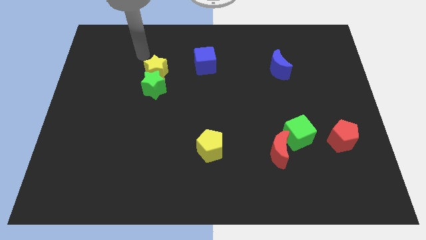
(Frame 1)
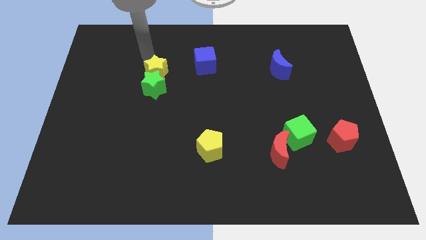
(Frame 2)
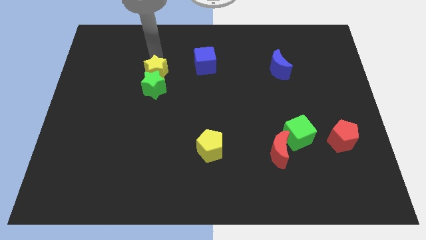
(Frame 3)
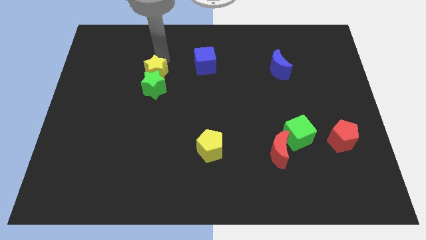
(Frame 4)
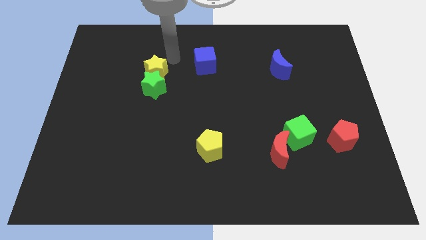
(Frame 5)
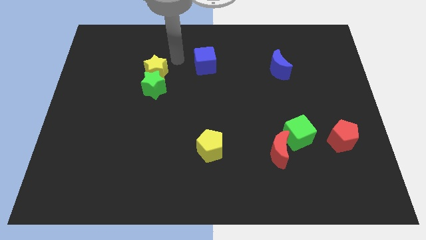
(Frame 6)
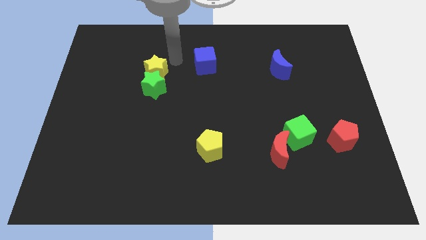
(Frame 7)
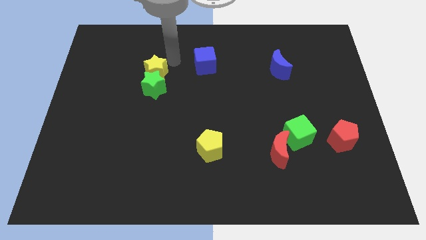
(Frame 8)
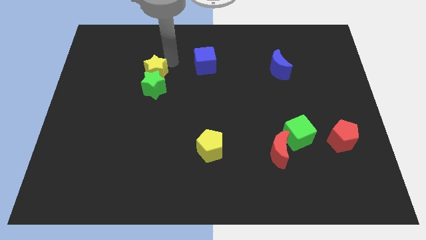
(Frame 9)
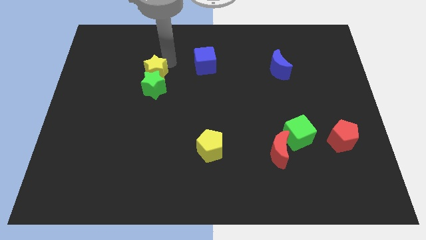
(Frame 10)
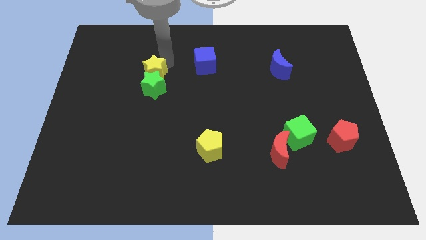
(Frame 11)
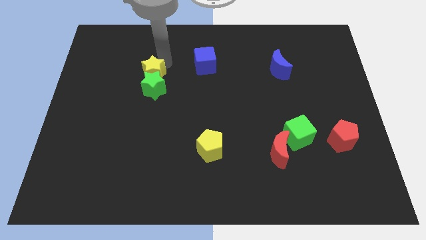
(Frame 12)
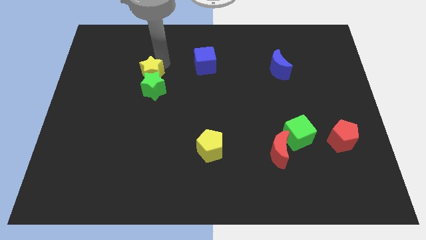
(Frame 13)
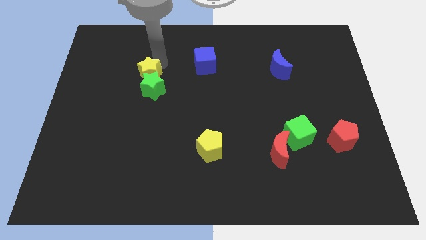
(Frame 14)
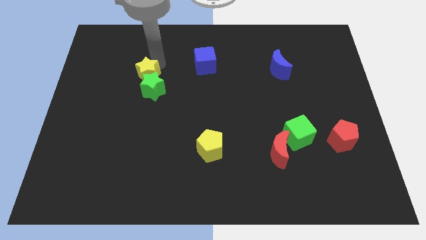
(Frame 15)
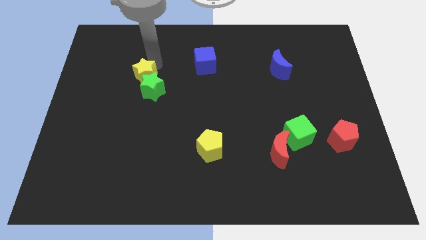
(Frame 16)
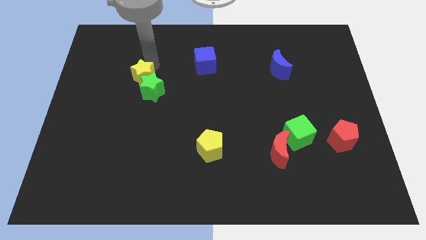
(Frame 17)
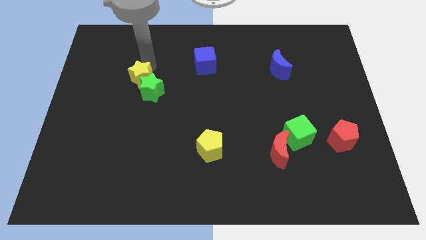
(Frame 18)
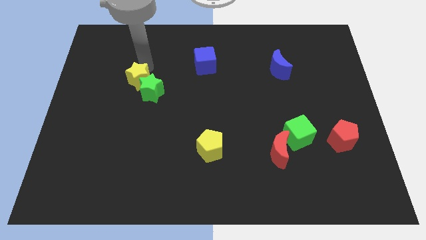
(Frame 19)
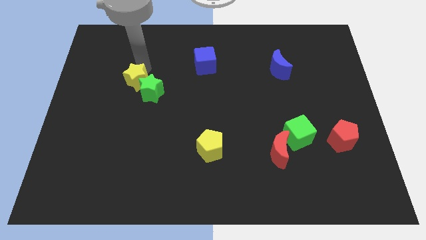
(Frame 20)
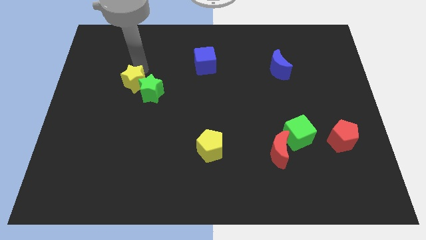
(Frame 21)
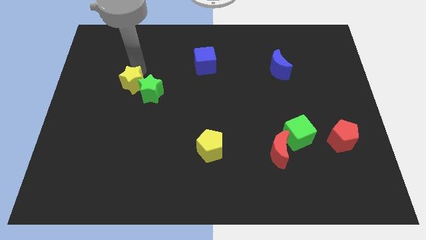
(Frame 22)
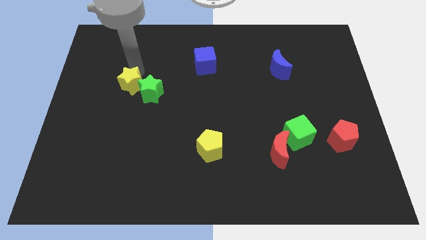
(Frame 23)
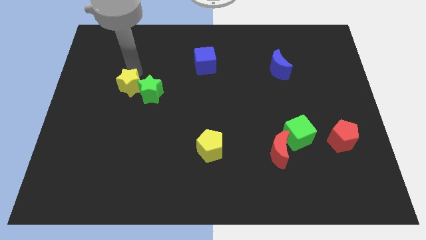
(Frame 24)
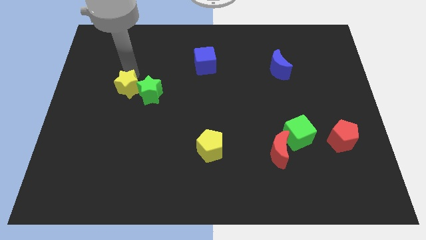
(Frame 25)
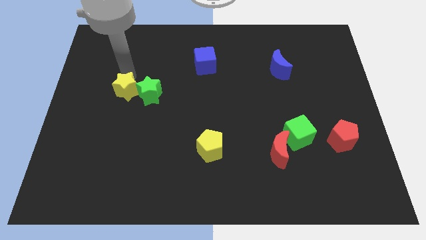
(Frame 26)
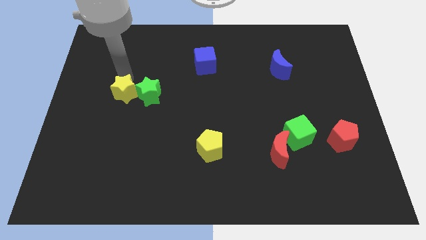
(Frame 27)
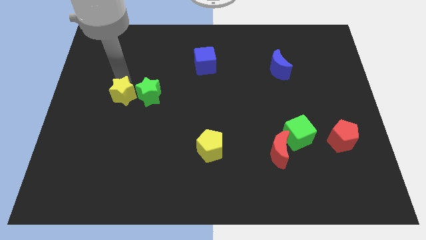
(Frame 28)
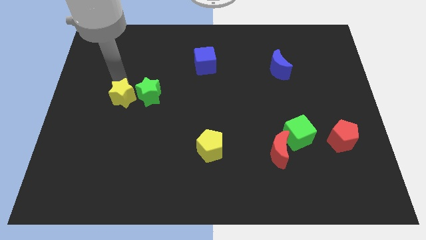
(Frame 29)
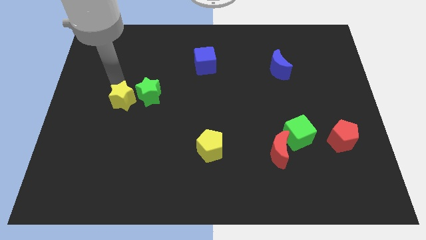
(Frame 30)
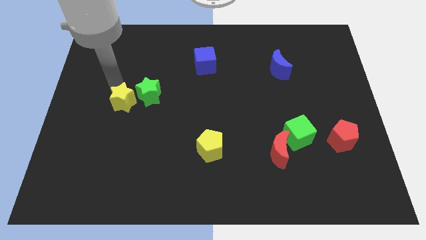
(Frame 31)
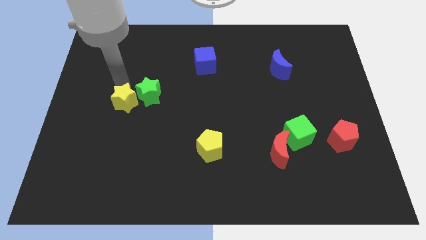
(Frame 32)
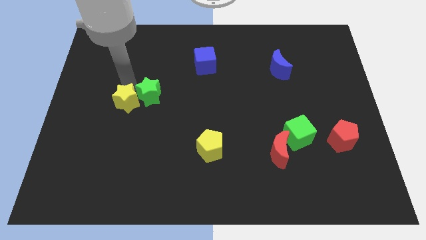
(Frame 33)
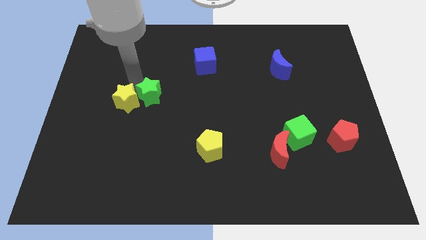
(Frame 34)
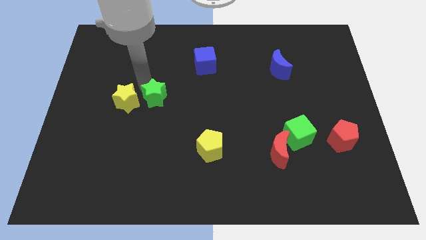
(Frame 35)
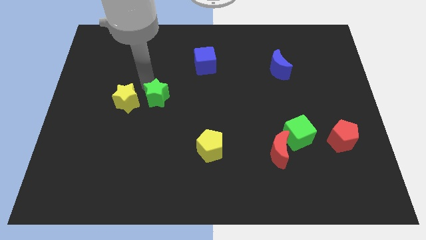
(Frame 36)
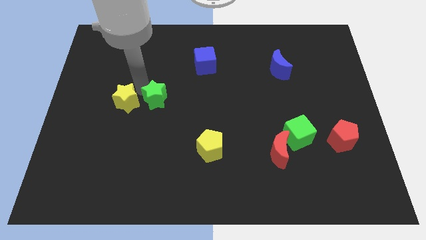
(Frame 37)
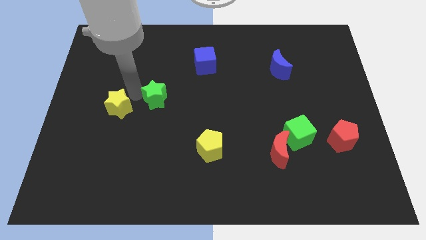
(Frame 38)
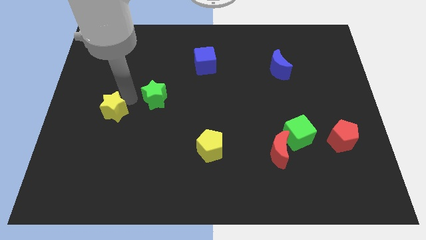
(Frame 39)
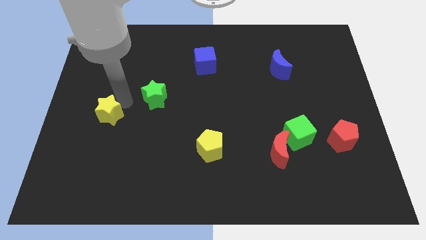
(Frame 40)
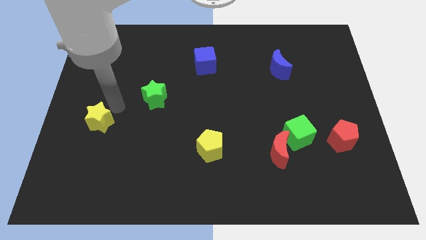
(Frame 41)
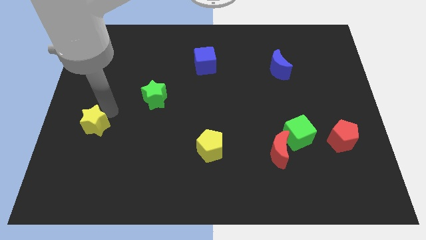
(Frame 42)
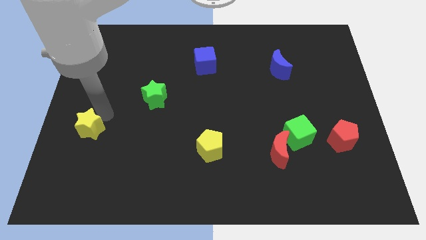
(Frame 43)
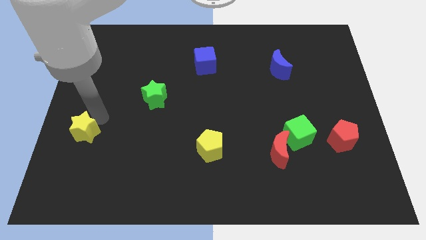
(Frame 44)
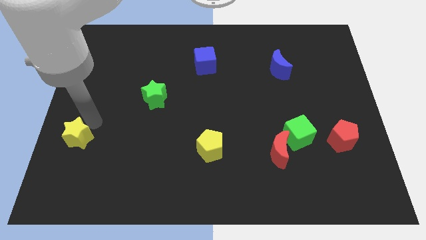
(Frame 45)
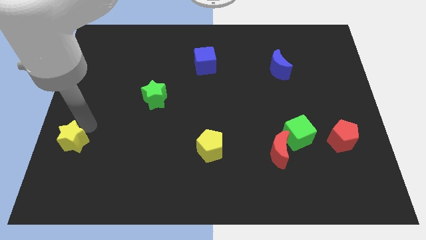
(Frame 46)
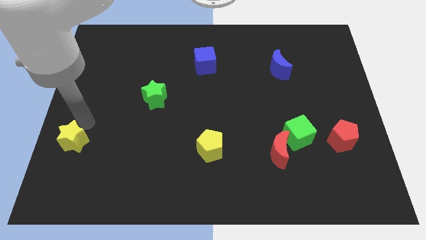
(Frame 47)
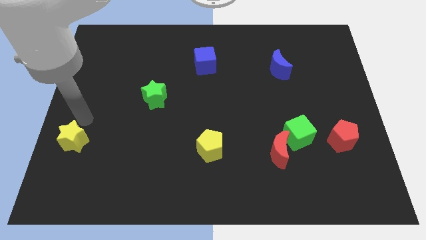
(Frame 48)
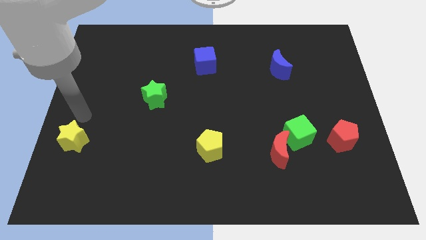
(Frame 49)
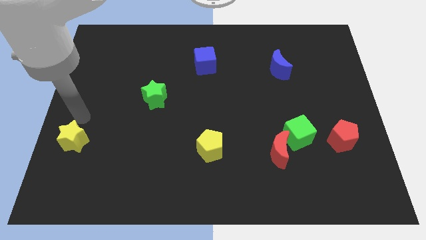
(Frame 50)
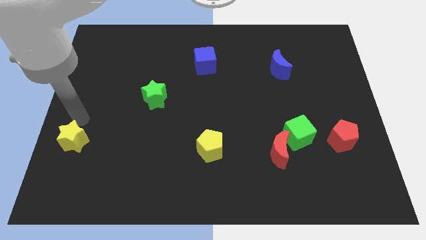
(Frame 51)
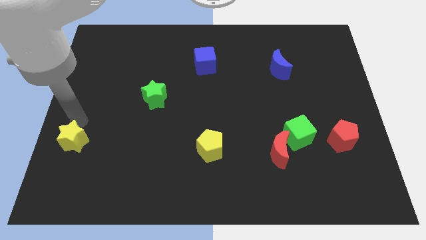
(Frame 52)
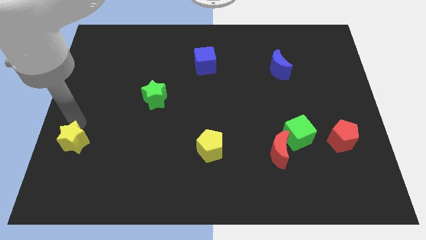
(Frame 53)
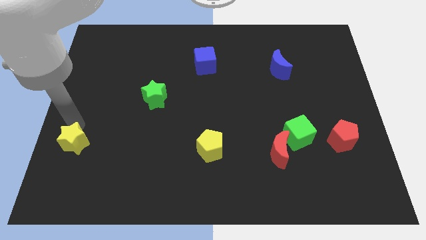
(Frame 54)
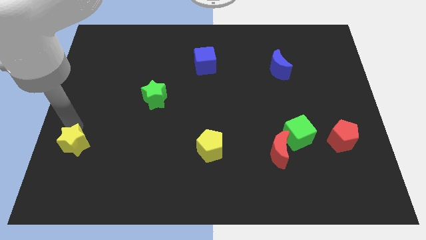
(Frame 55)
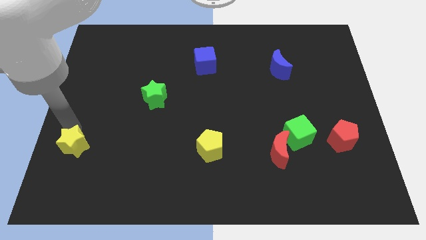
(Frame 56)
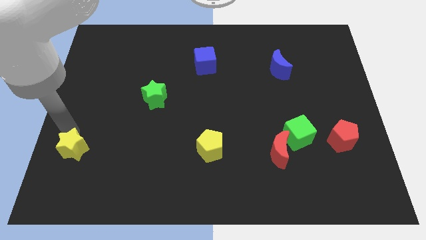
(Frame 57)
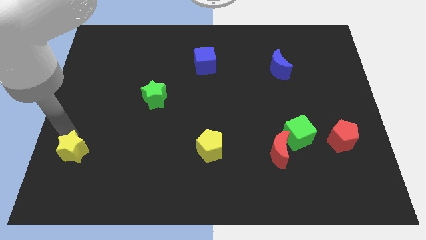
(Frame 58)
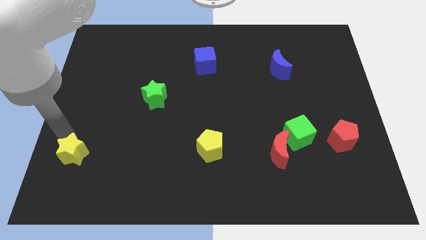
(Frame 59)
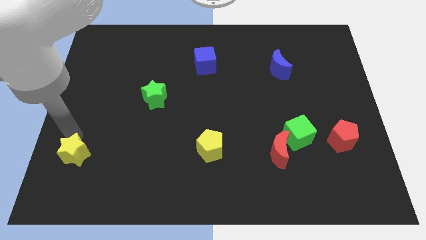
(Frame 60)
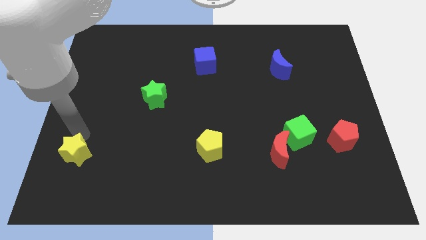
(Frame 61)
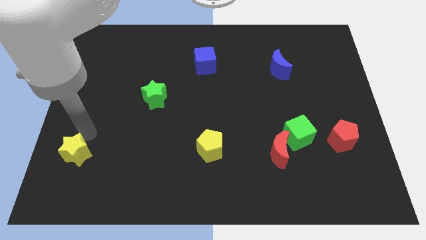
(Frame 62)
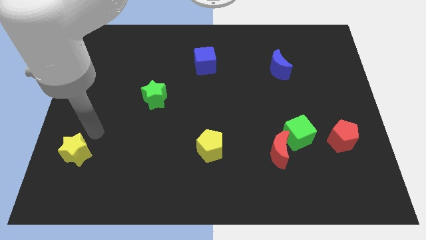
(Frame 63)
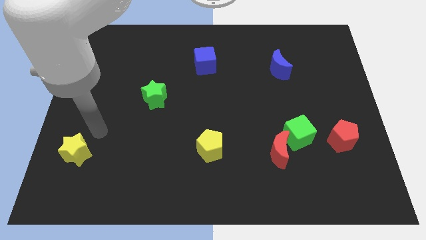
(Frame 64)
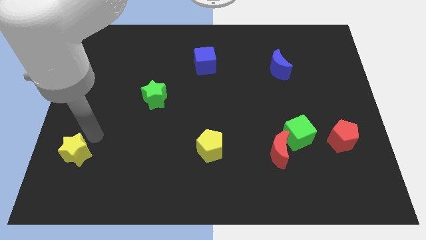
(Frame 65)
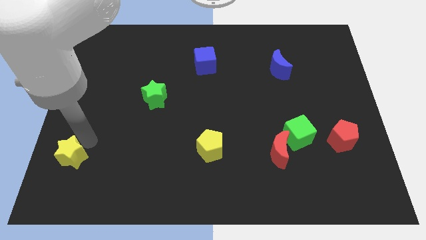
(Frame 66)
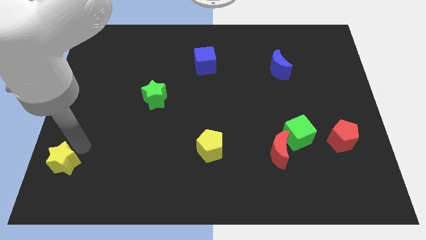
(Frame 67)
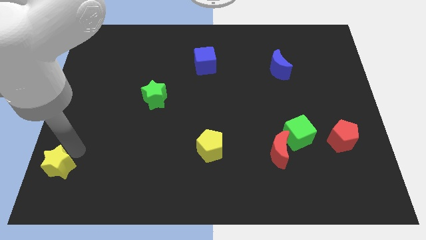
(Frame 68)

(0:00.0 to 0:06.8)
push the yellow star to the bottom left
